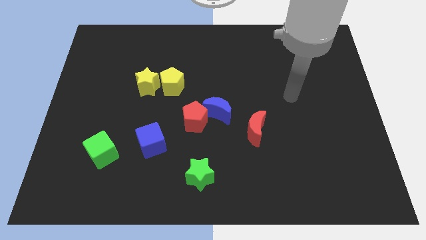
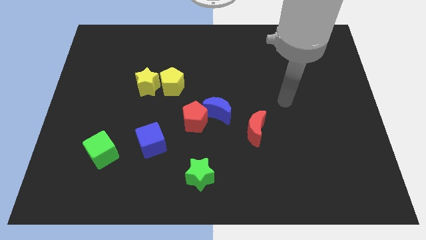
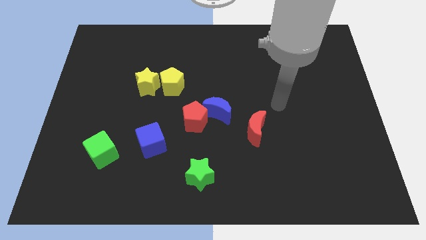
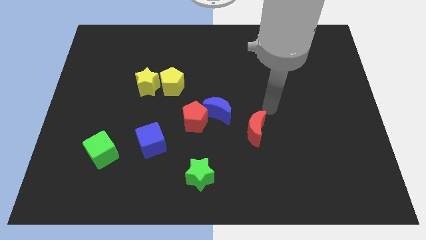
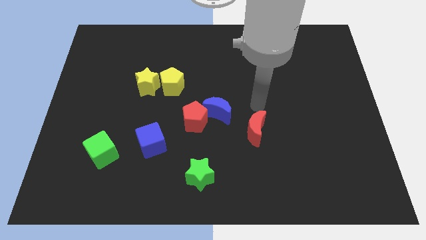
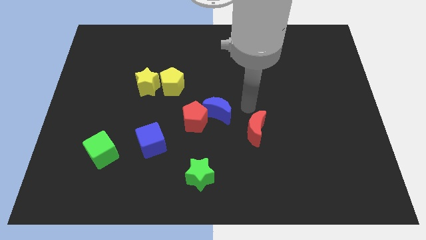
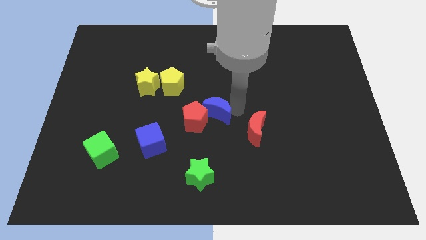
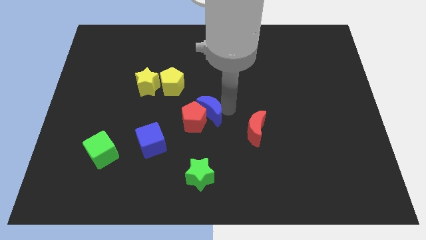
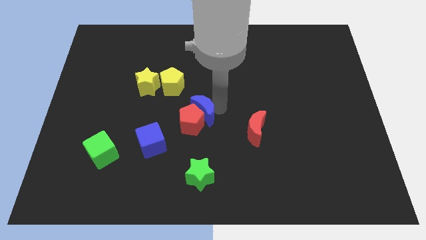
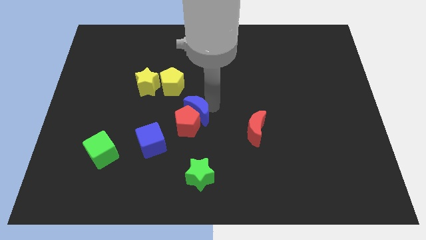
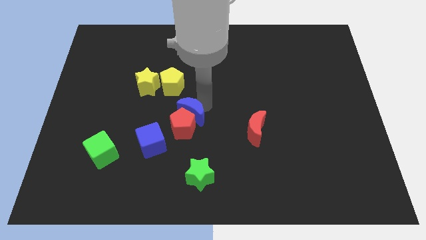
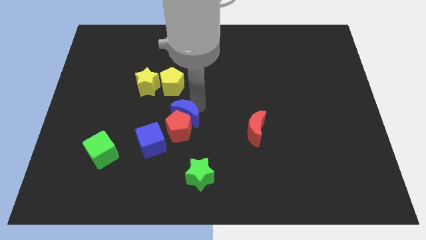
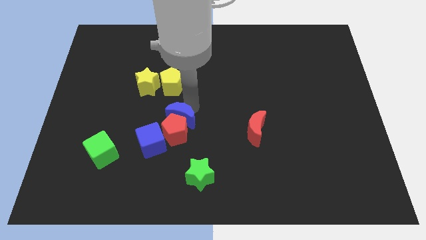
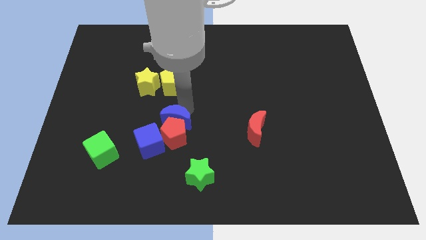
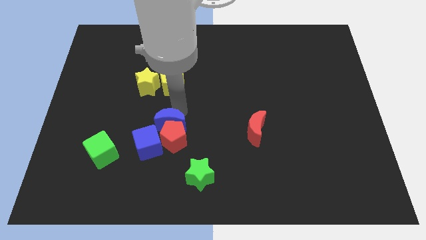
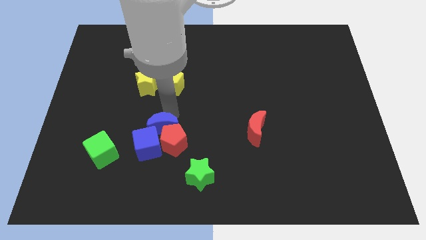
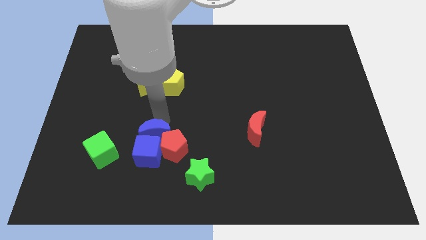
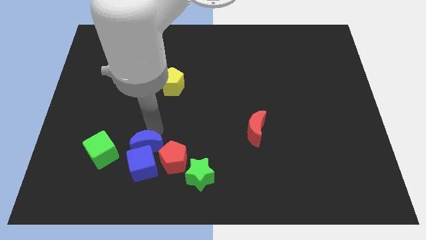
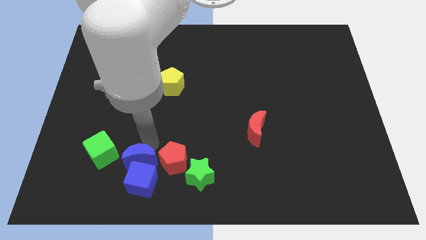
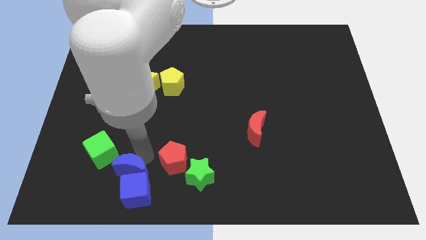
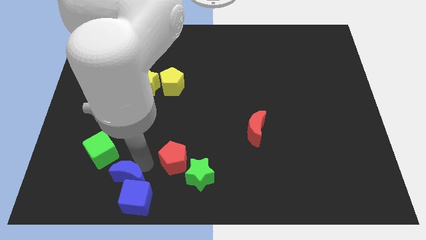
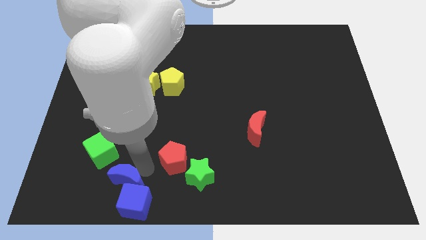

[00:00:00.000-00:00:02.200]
separate the red pentagon from the blue moon

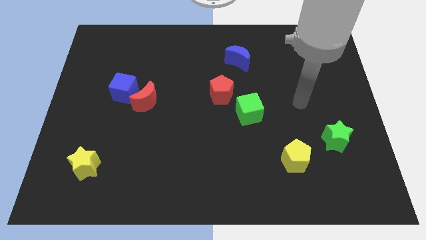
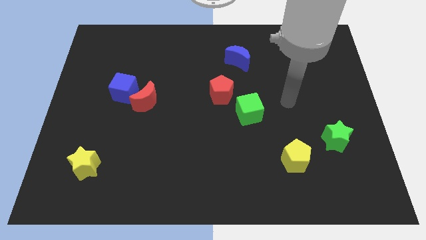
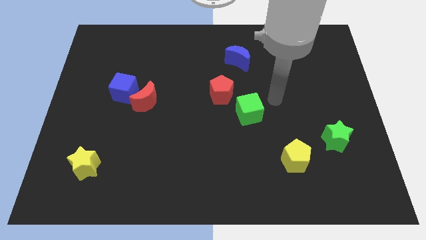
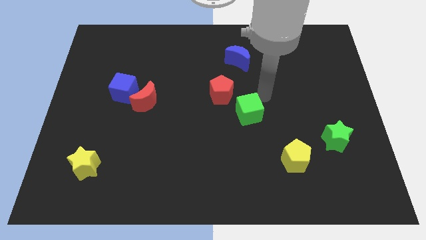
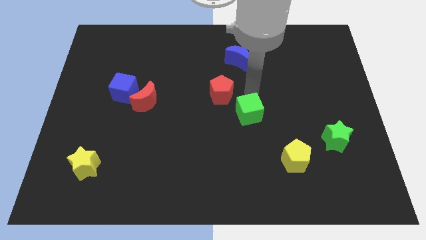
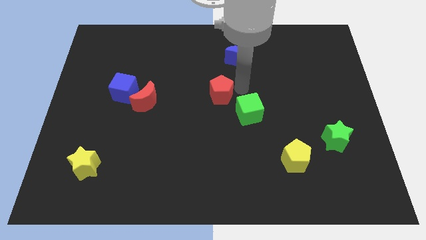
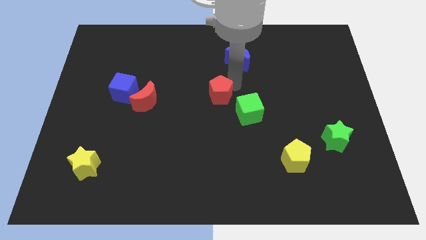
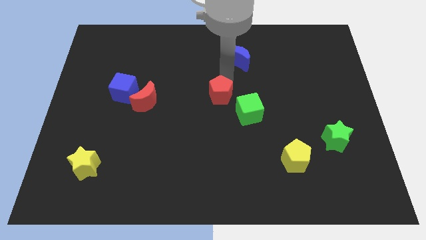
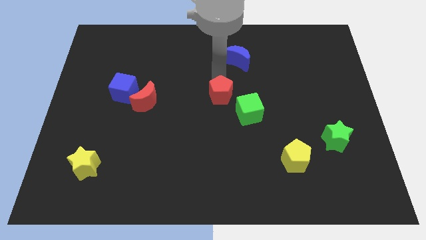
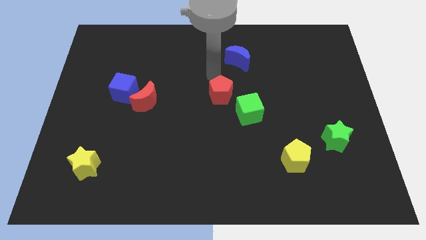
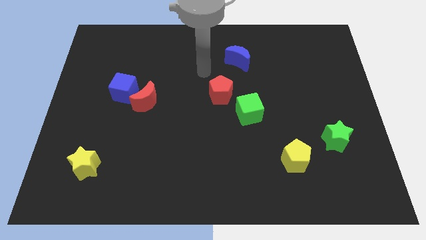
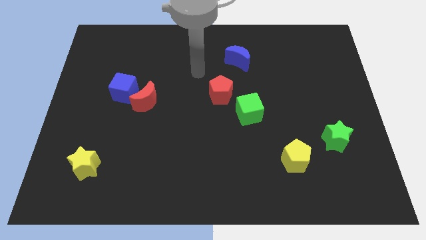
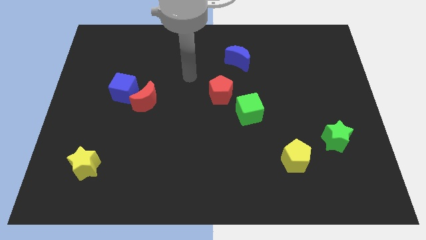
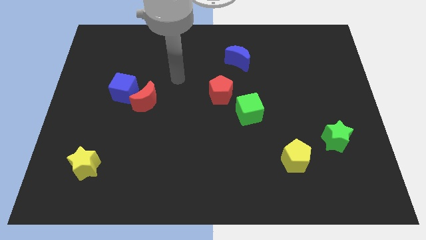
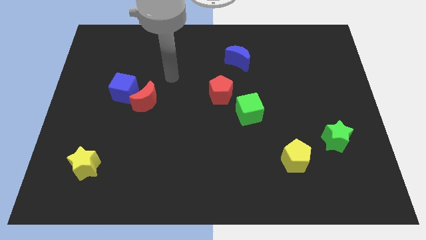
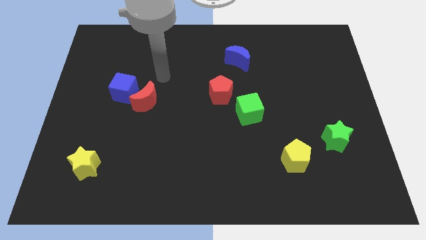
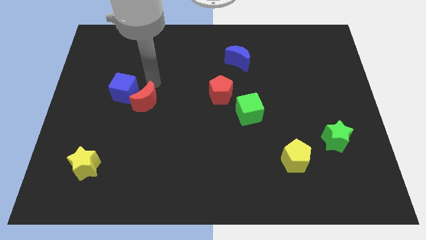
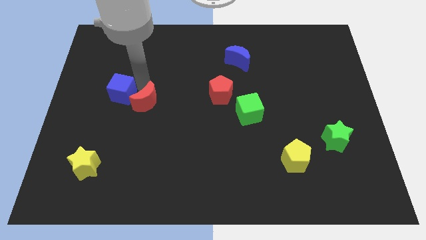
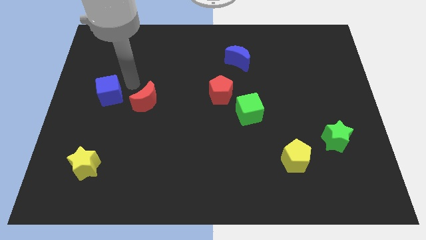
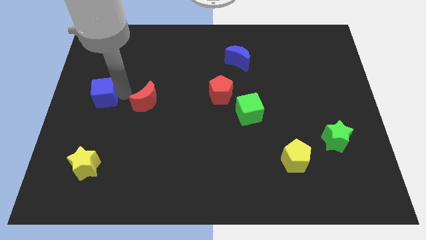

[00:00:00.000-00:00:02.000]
move the red moon away from the blue cube

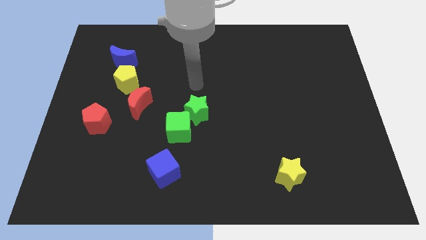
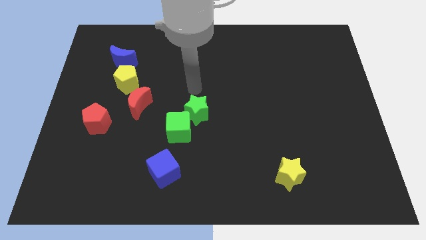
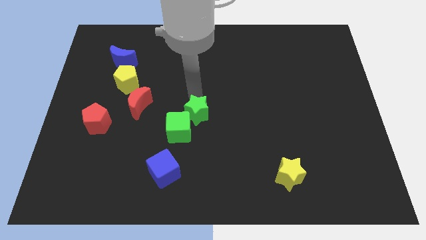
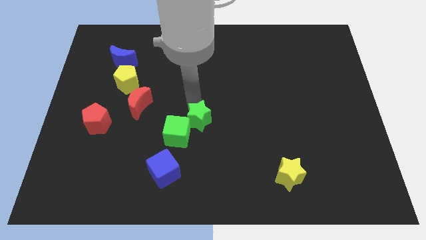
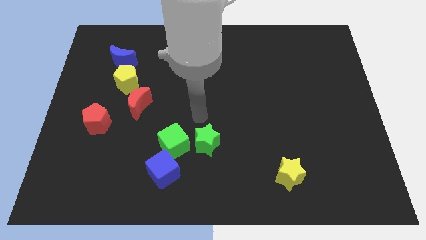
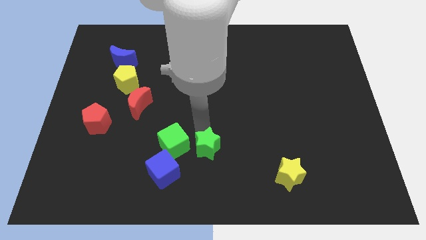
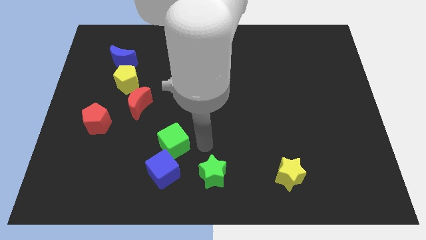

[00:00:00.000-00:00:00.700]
pull the green cube apart from the green star

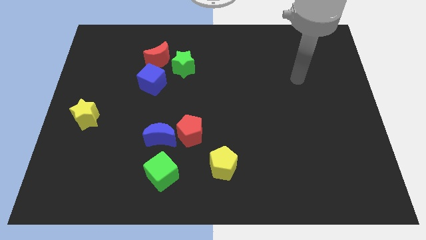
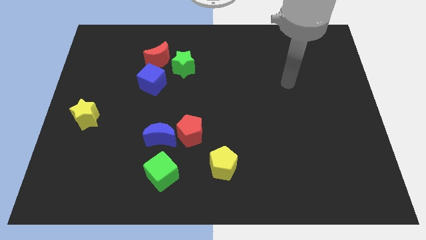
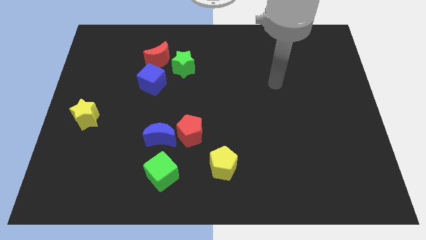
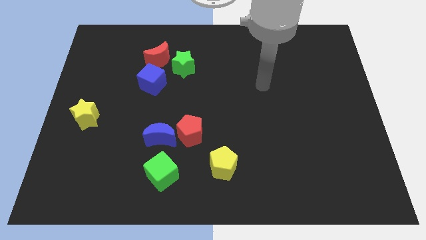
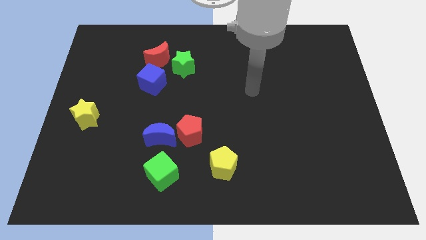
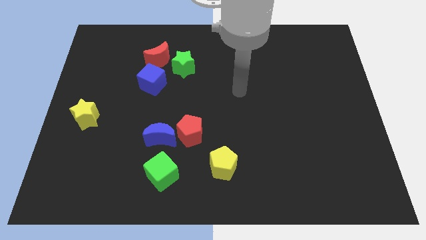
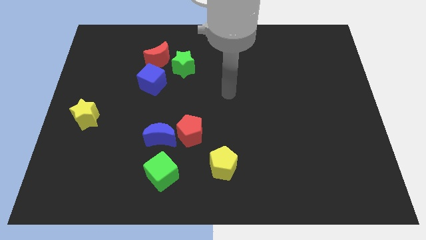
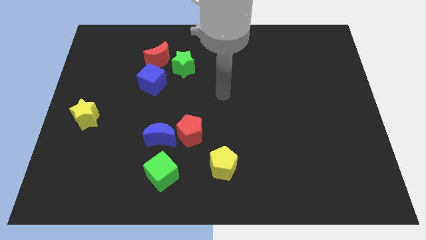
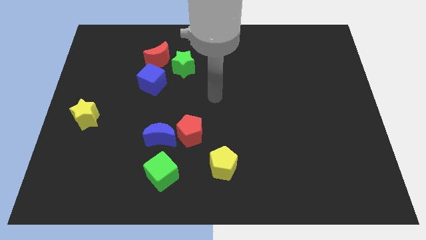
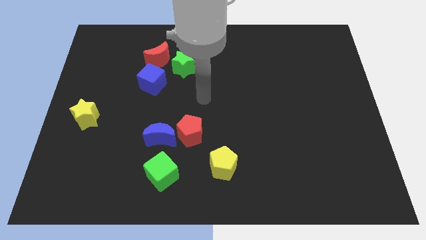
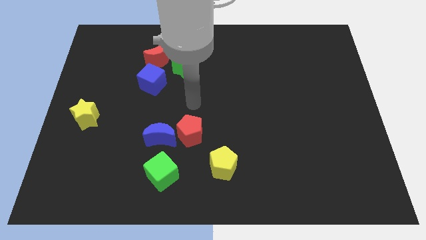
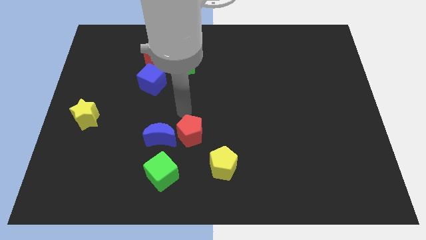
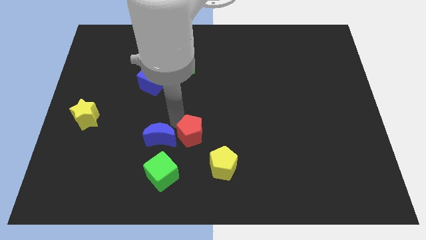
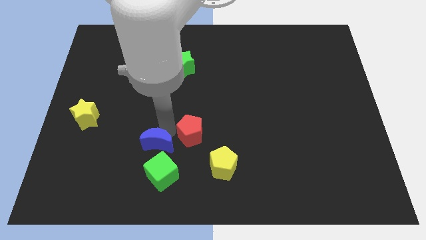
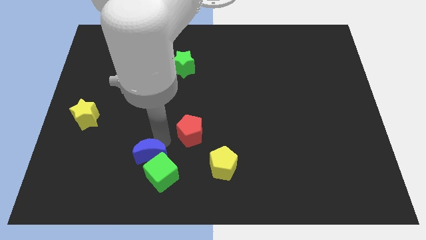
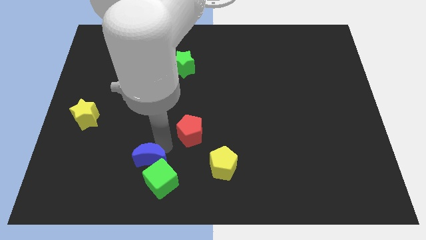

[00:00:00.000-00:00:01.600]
pull the red pentagon apart from the blue moon

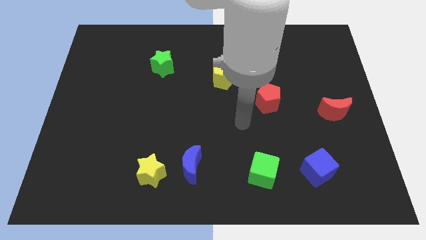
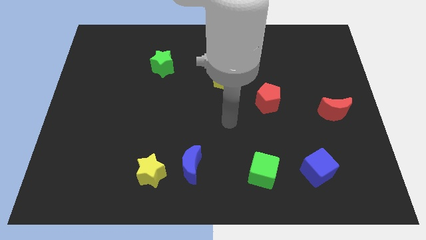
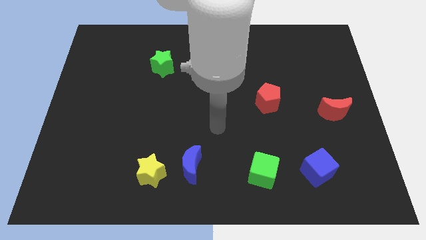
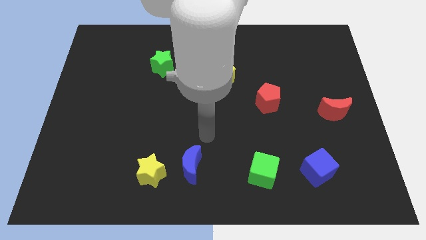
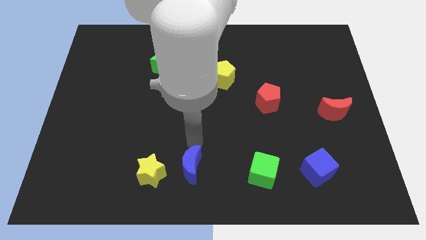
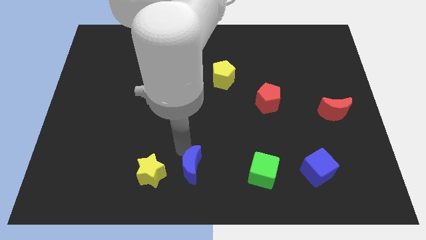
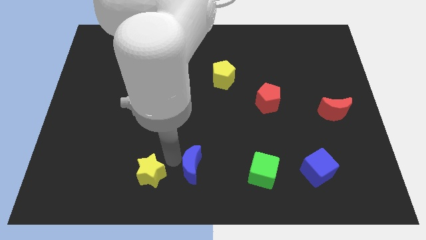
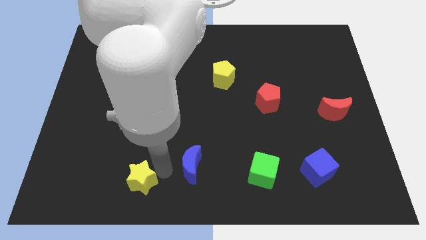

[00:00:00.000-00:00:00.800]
pull the blue moon apart from the yellow star

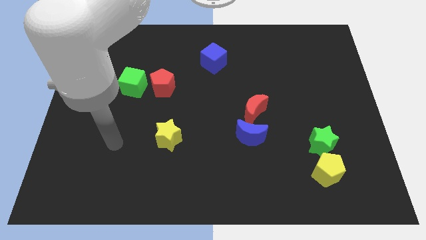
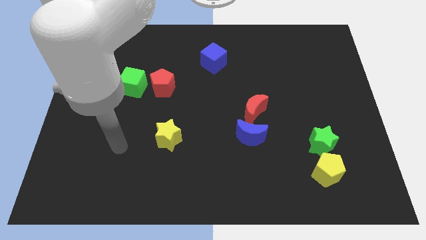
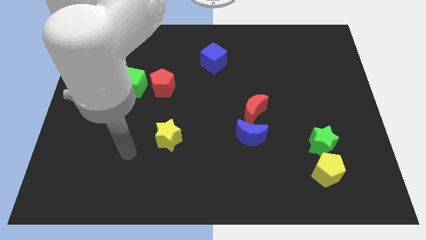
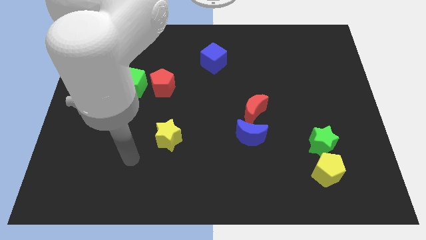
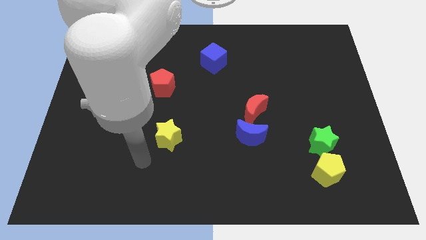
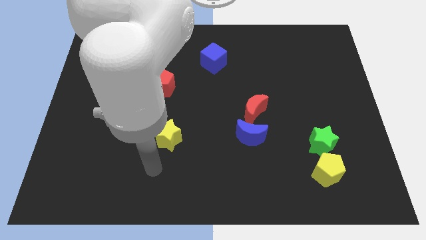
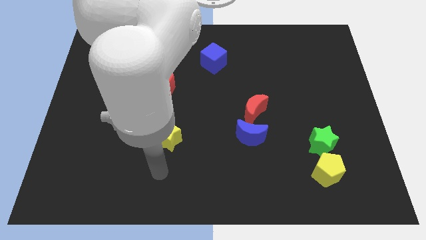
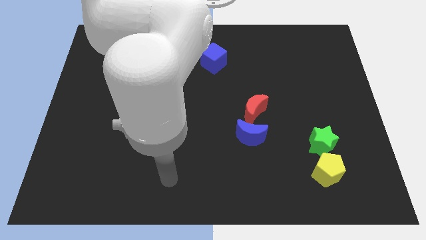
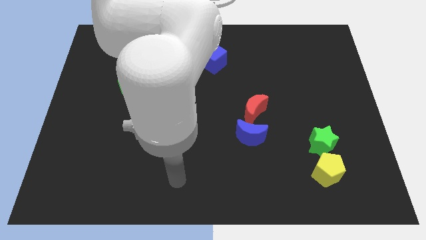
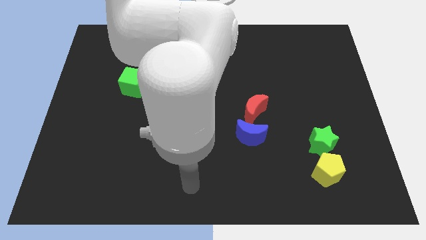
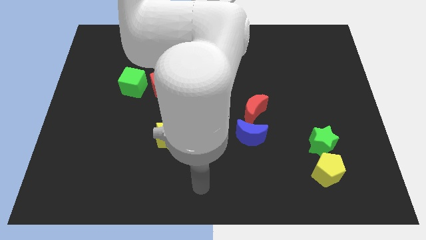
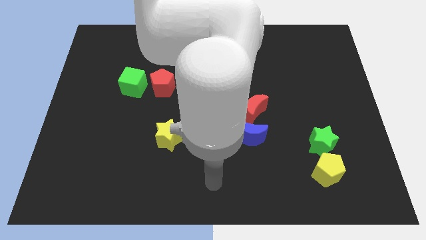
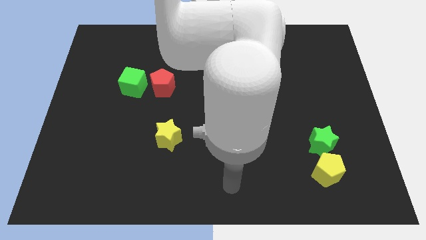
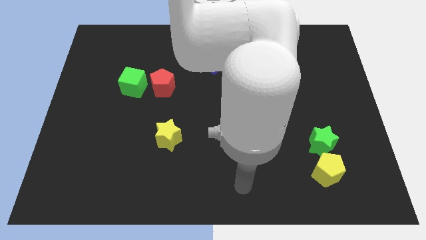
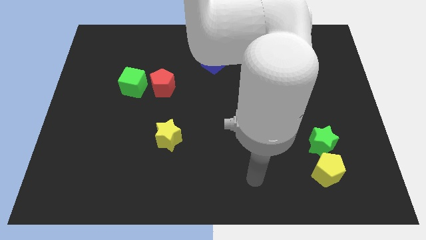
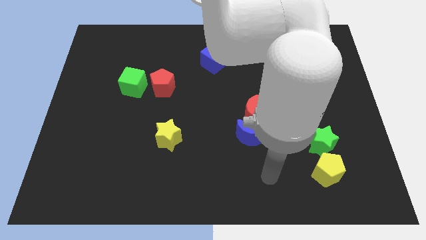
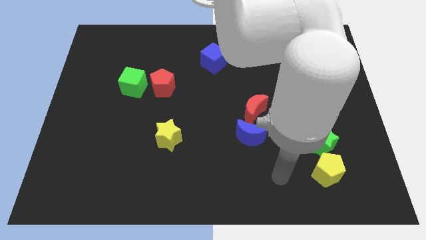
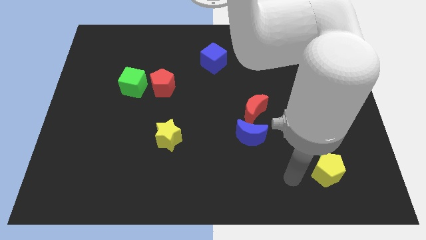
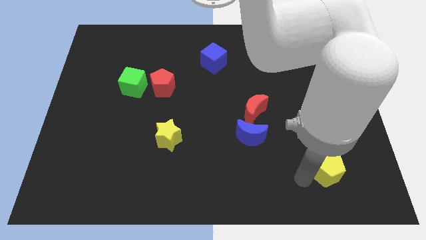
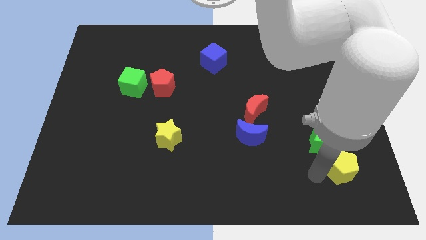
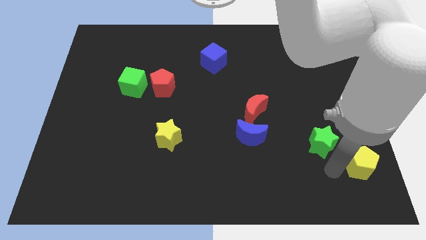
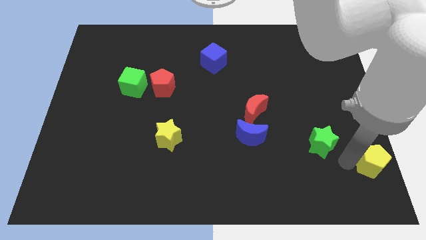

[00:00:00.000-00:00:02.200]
pull the green star apart from the yellow pentagon
